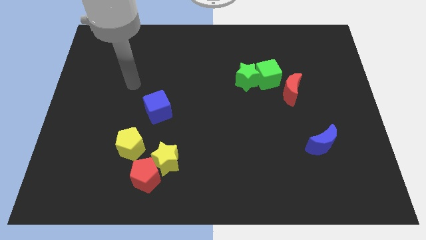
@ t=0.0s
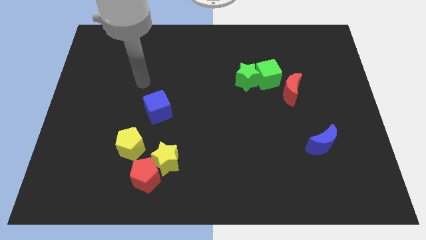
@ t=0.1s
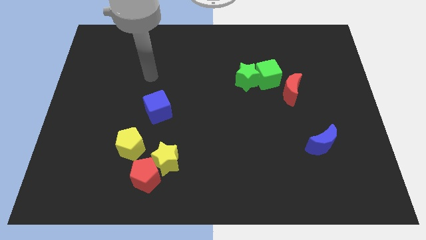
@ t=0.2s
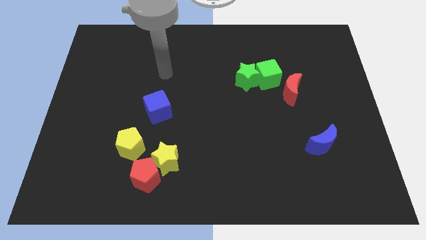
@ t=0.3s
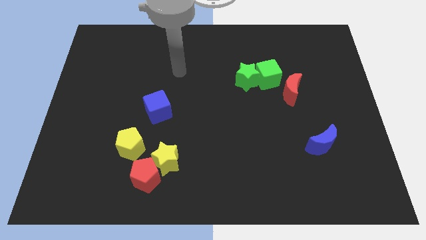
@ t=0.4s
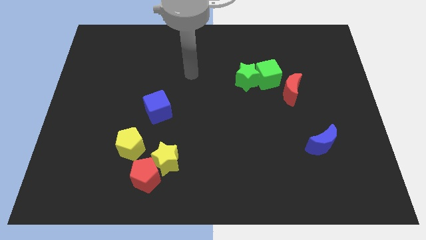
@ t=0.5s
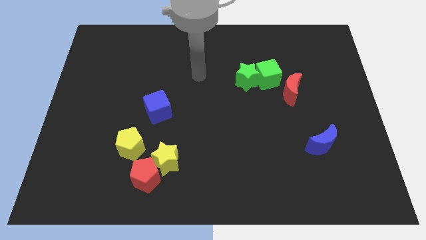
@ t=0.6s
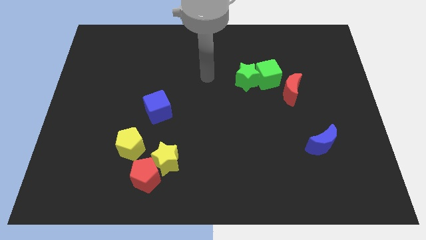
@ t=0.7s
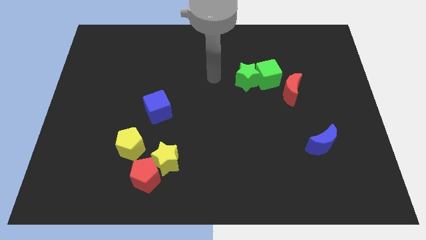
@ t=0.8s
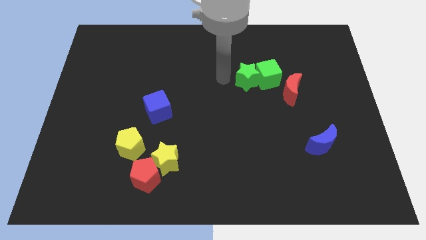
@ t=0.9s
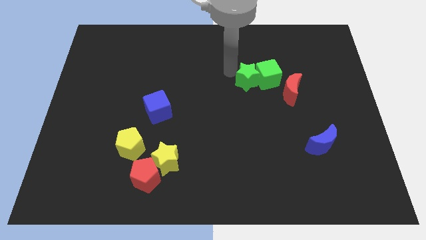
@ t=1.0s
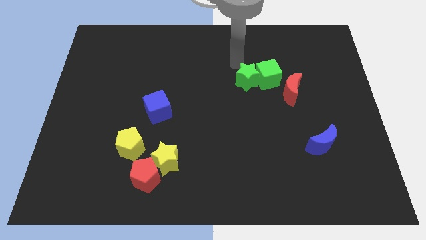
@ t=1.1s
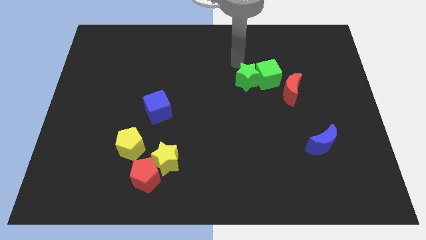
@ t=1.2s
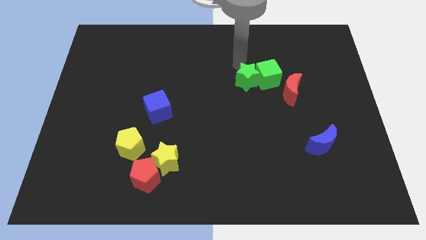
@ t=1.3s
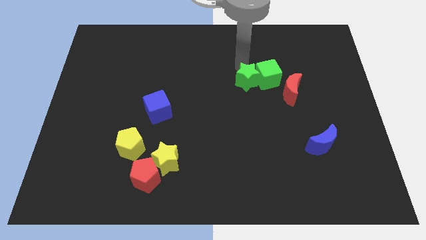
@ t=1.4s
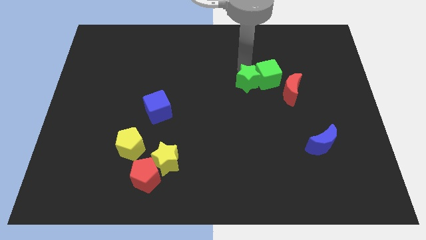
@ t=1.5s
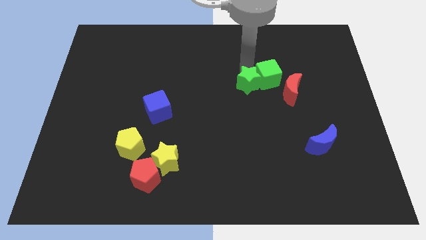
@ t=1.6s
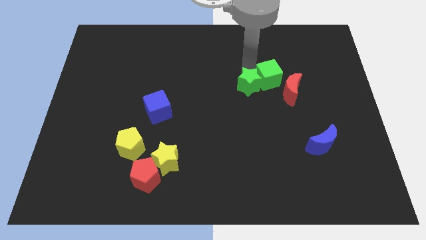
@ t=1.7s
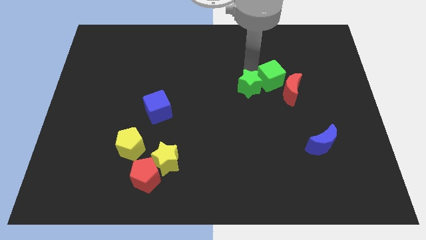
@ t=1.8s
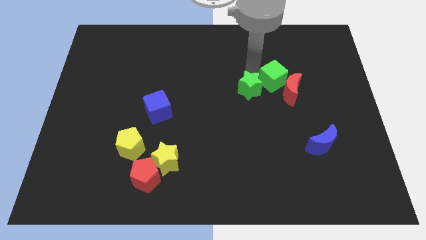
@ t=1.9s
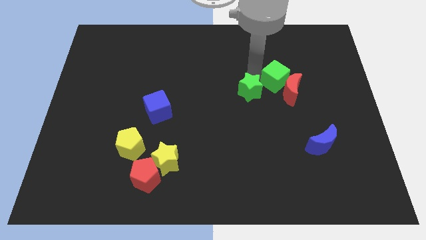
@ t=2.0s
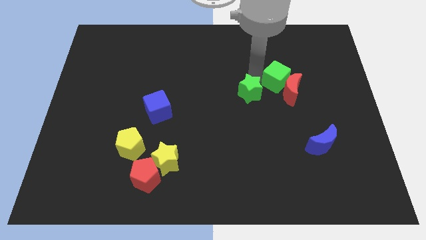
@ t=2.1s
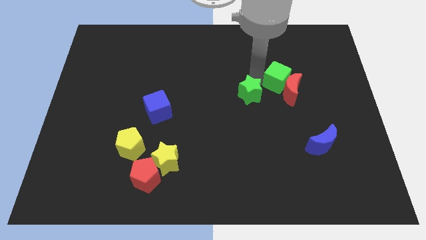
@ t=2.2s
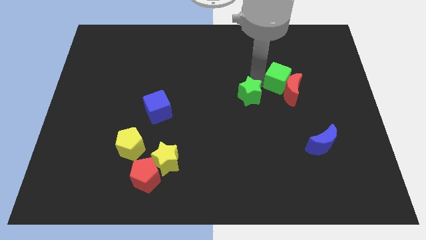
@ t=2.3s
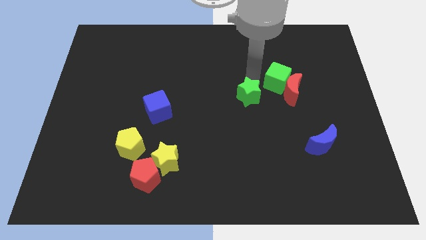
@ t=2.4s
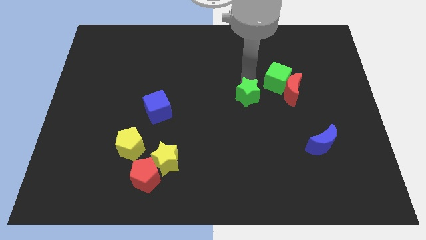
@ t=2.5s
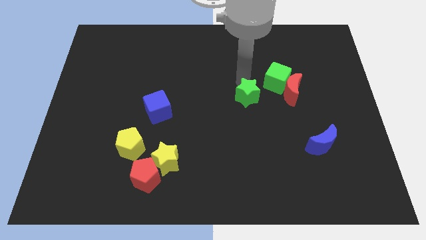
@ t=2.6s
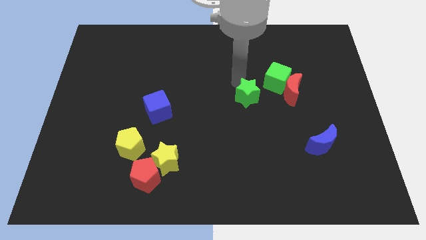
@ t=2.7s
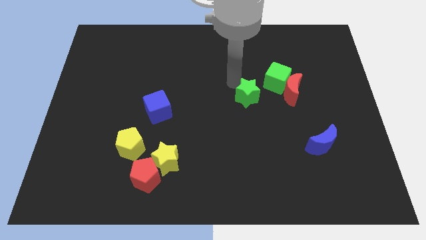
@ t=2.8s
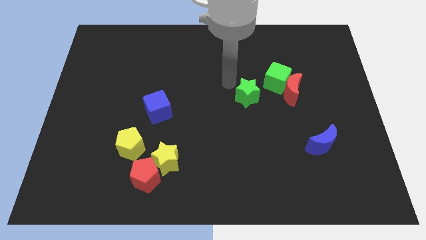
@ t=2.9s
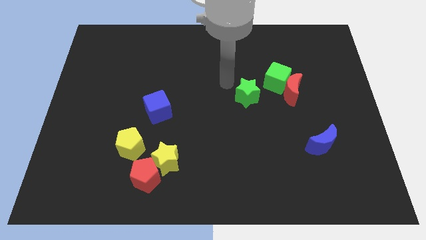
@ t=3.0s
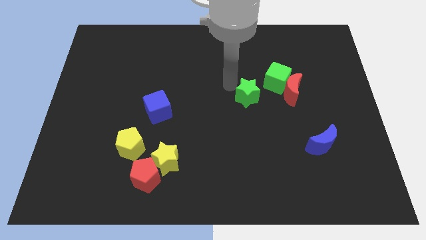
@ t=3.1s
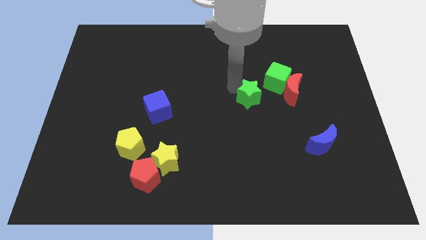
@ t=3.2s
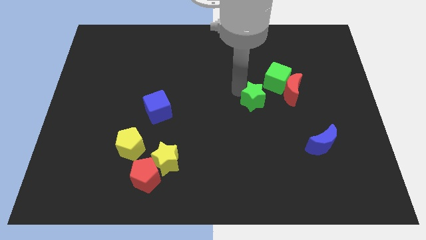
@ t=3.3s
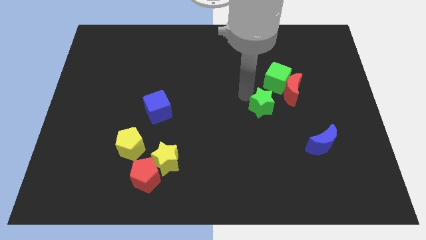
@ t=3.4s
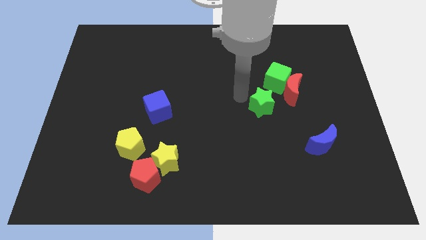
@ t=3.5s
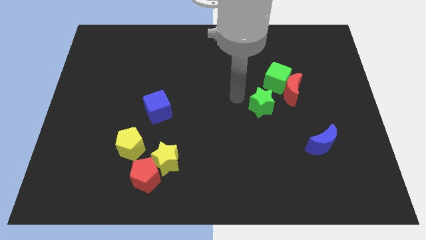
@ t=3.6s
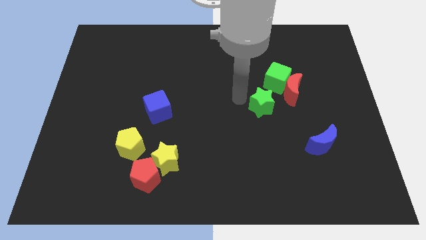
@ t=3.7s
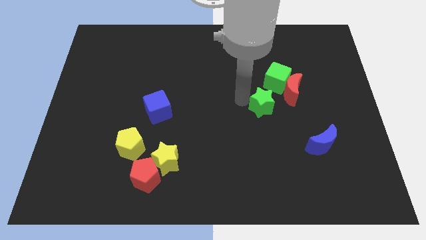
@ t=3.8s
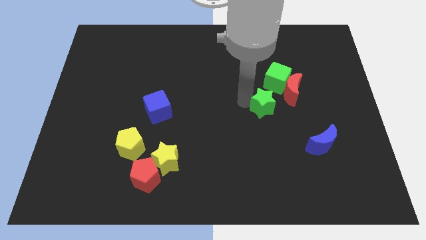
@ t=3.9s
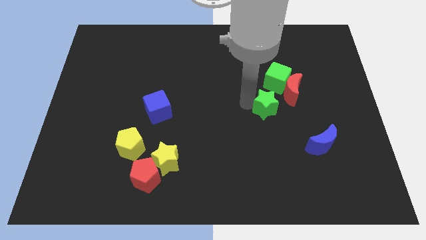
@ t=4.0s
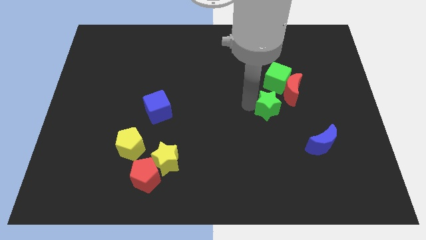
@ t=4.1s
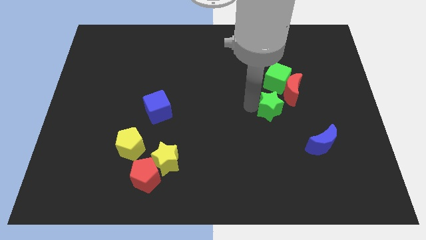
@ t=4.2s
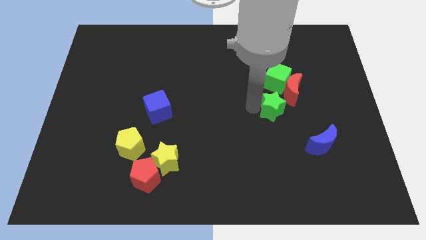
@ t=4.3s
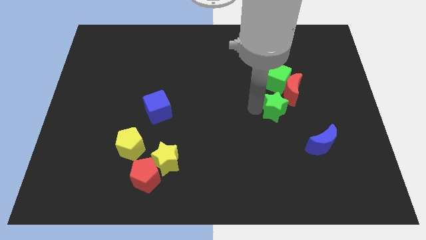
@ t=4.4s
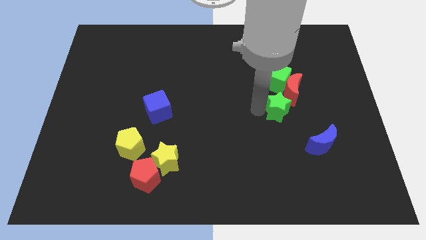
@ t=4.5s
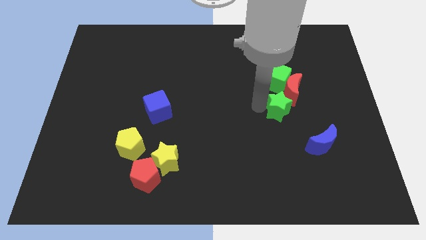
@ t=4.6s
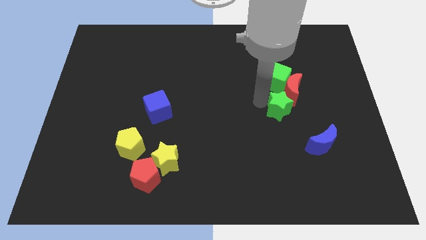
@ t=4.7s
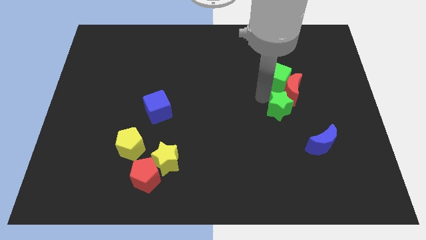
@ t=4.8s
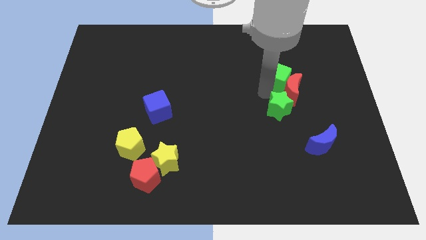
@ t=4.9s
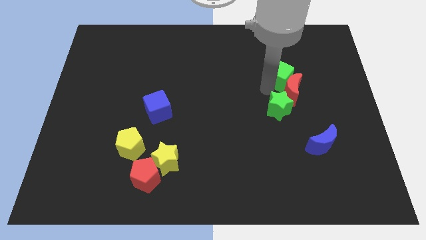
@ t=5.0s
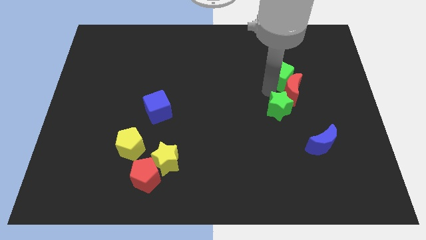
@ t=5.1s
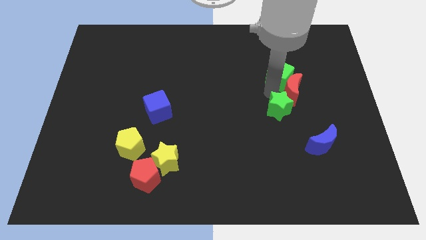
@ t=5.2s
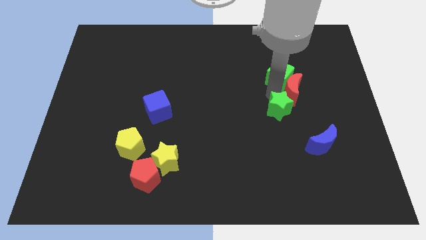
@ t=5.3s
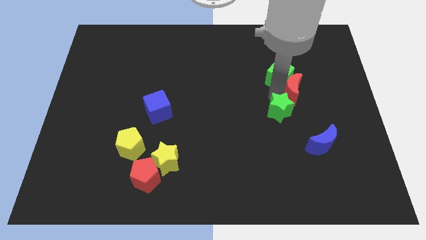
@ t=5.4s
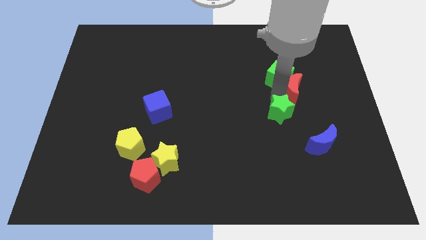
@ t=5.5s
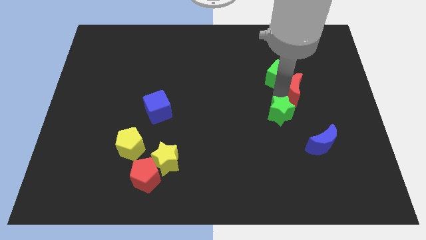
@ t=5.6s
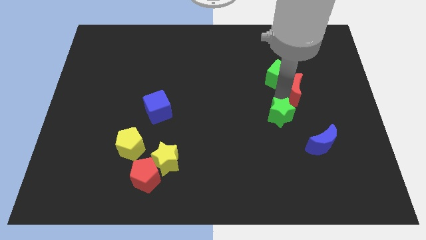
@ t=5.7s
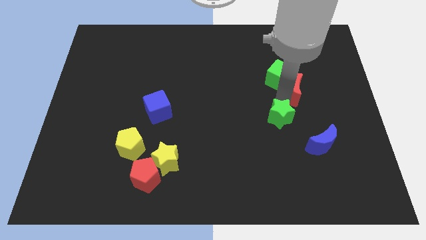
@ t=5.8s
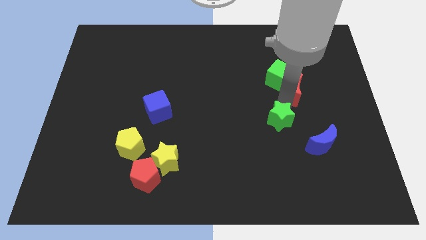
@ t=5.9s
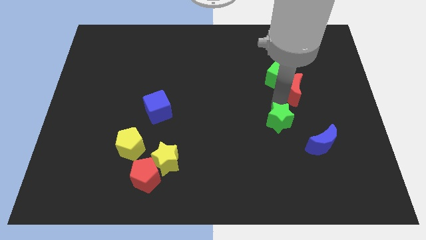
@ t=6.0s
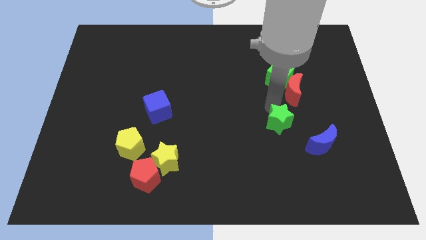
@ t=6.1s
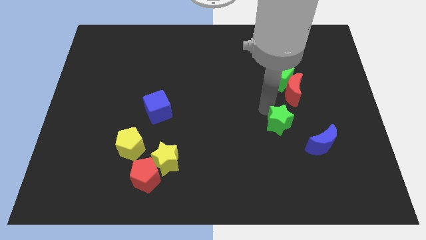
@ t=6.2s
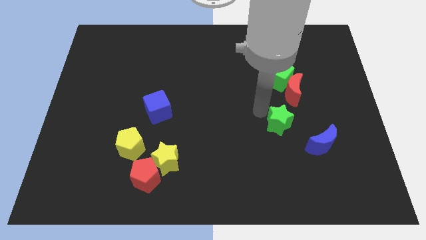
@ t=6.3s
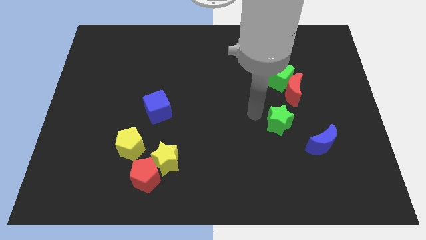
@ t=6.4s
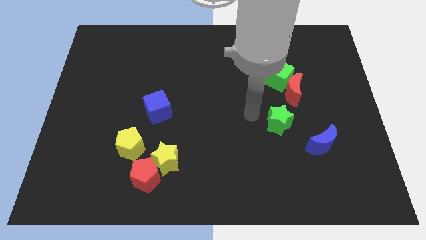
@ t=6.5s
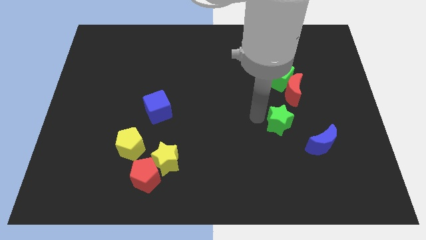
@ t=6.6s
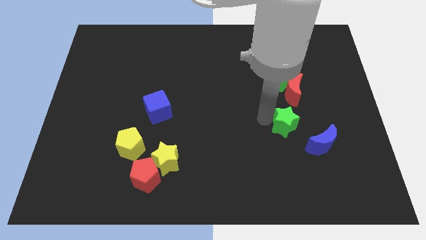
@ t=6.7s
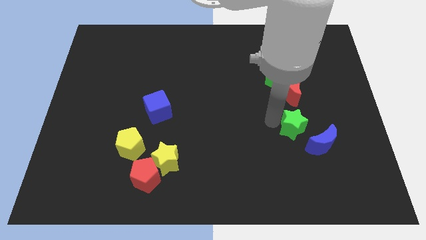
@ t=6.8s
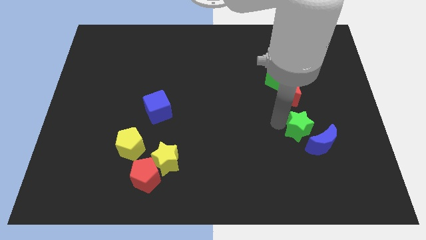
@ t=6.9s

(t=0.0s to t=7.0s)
slide the green star towards the blue moon
